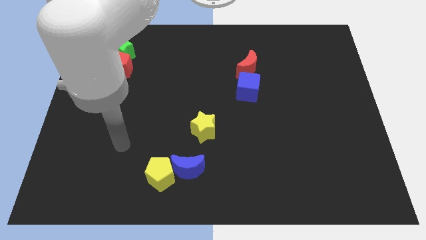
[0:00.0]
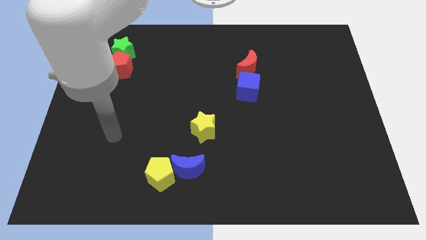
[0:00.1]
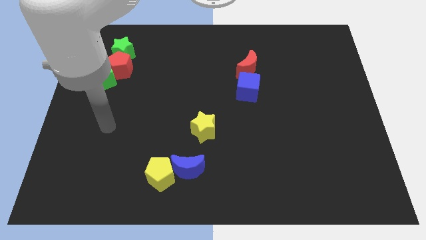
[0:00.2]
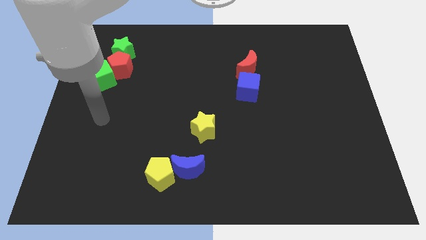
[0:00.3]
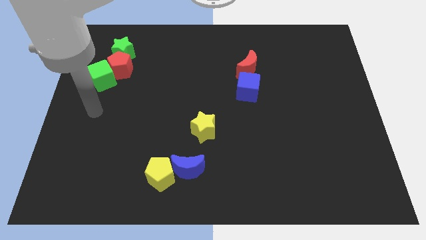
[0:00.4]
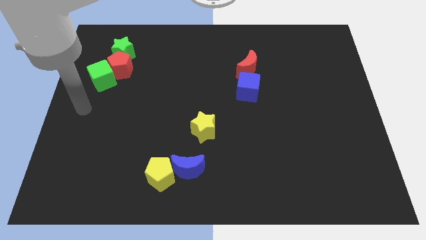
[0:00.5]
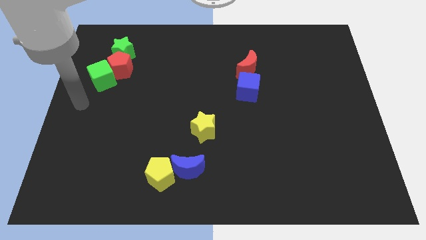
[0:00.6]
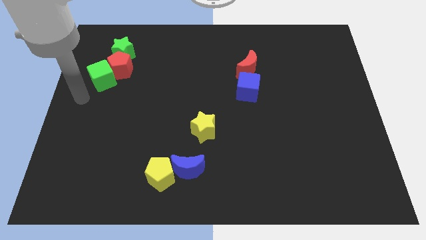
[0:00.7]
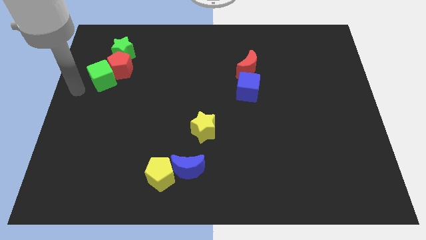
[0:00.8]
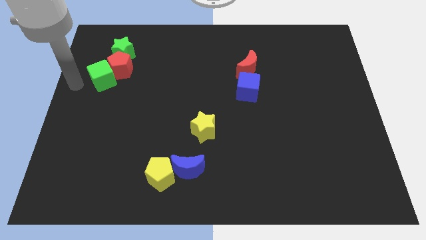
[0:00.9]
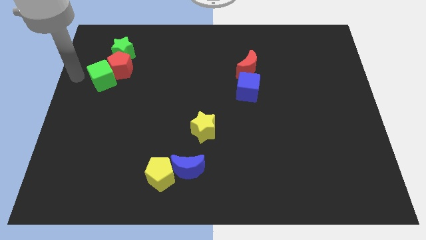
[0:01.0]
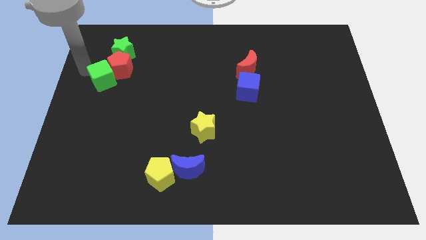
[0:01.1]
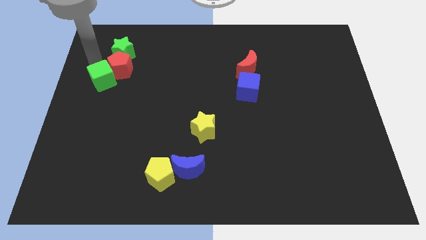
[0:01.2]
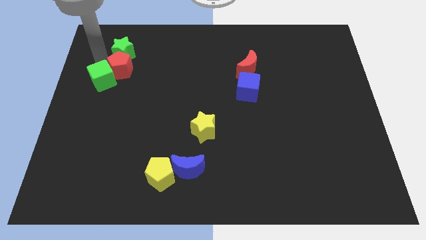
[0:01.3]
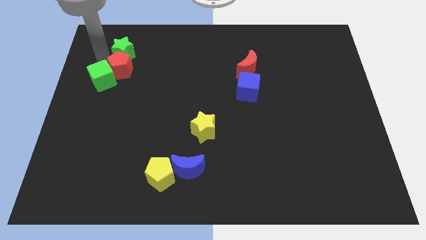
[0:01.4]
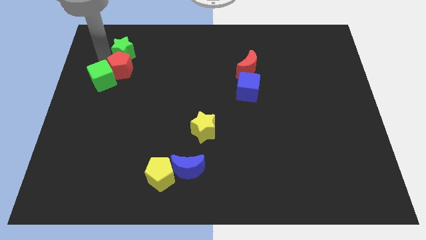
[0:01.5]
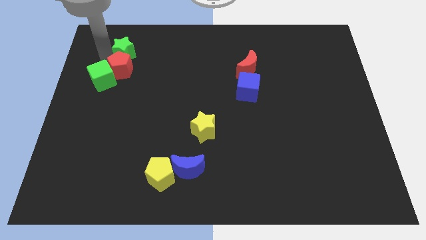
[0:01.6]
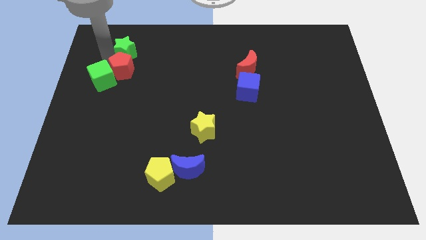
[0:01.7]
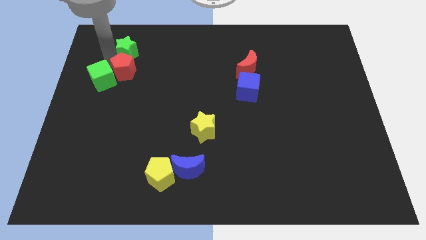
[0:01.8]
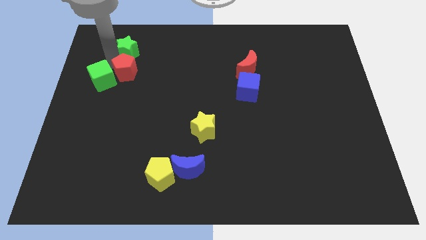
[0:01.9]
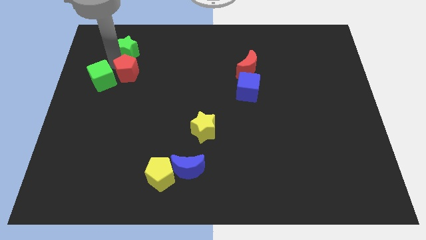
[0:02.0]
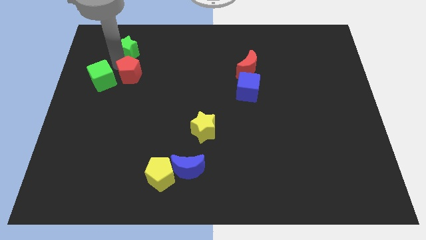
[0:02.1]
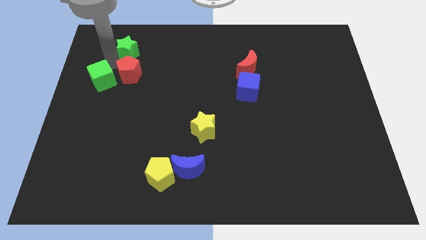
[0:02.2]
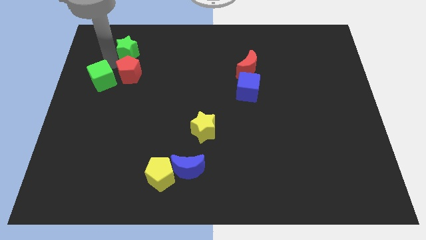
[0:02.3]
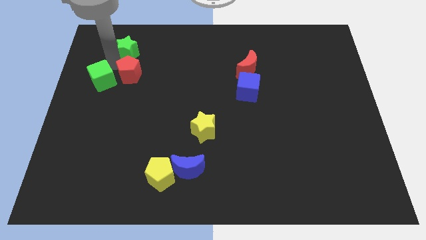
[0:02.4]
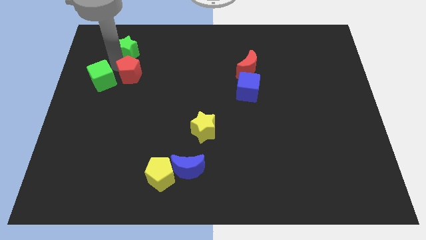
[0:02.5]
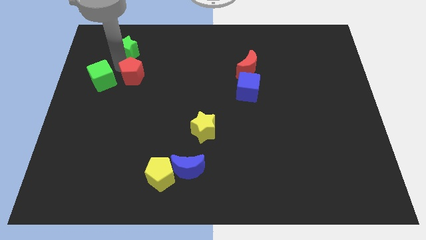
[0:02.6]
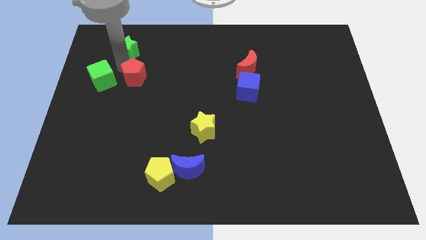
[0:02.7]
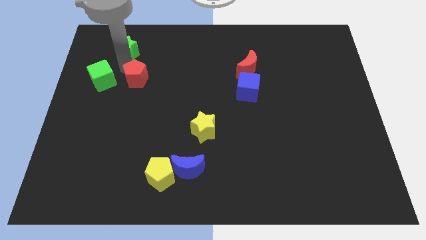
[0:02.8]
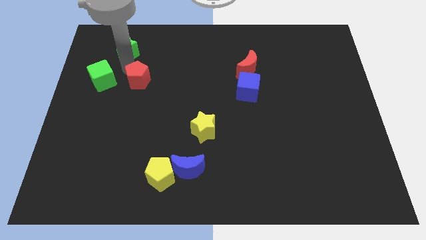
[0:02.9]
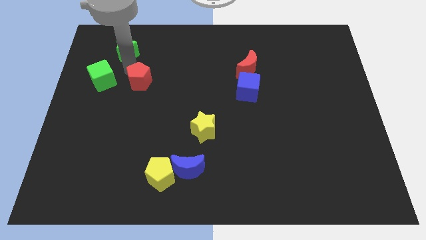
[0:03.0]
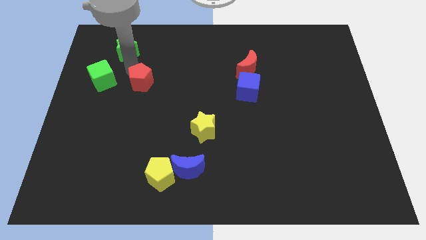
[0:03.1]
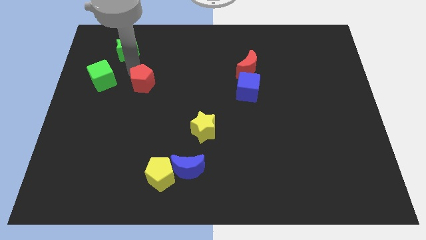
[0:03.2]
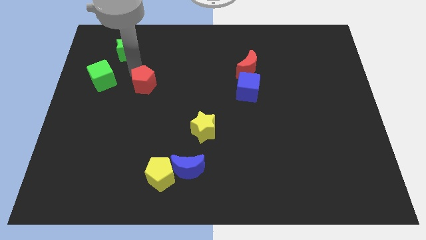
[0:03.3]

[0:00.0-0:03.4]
separate the red pentagon from the green cube and green star

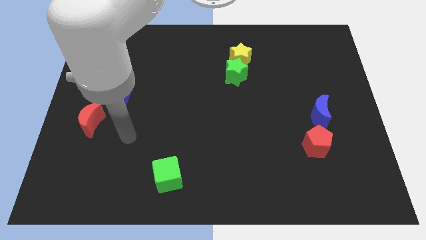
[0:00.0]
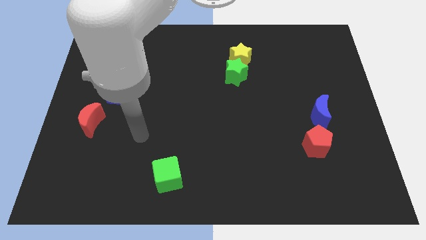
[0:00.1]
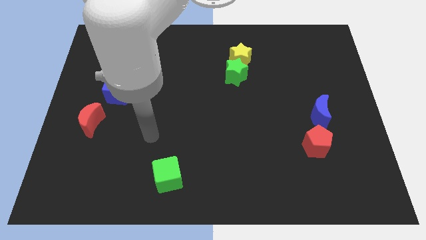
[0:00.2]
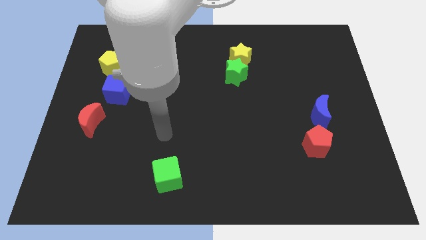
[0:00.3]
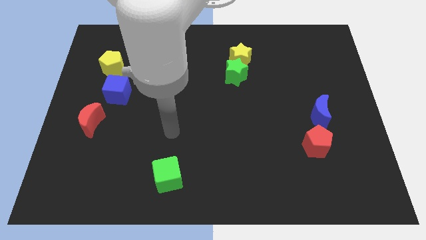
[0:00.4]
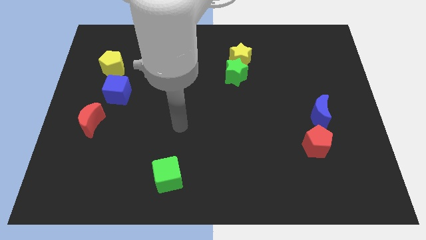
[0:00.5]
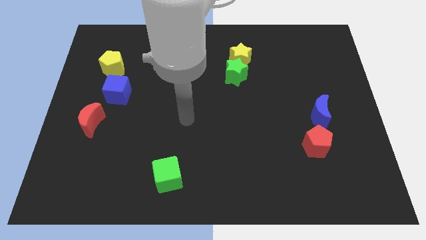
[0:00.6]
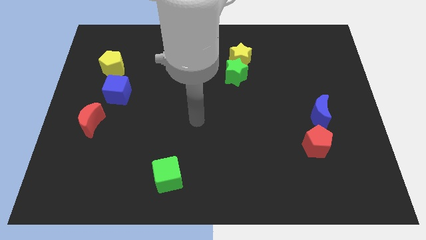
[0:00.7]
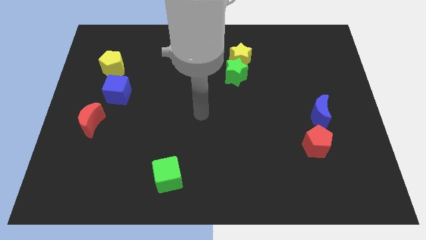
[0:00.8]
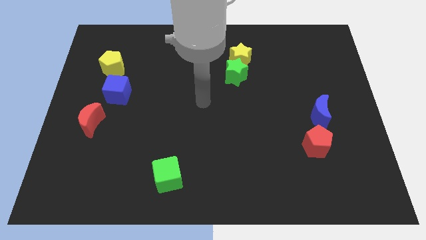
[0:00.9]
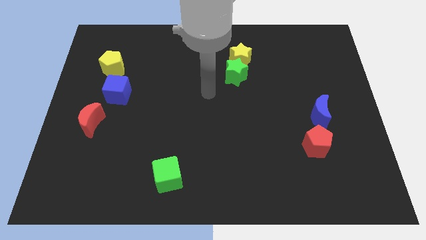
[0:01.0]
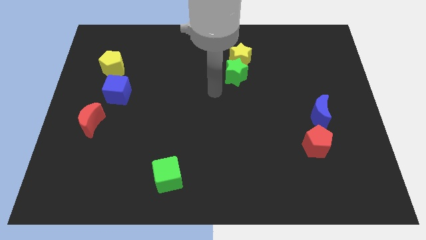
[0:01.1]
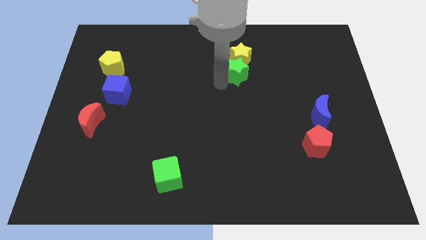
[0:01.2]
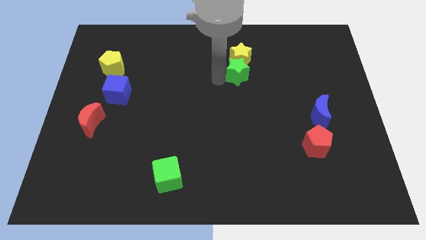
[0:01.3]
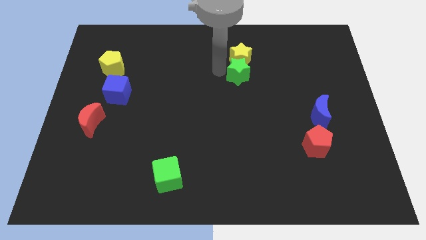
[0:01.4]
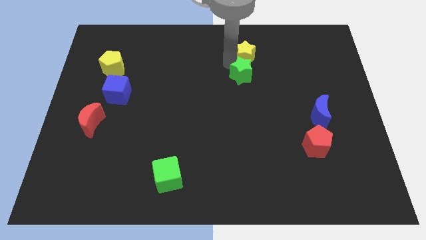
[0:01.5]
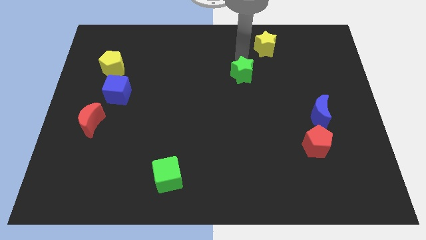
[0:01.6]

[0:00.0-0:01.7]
pull the green star apart from the yellow star

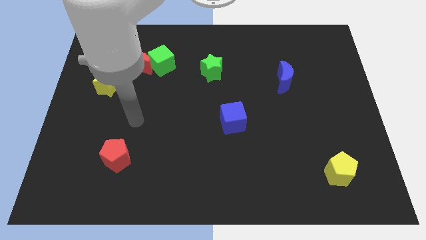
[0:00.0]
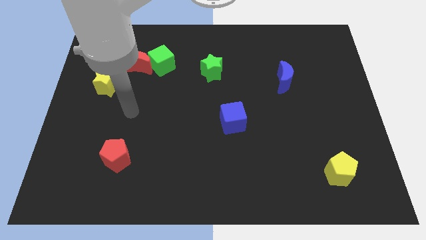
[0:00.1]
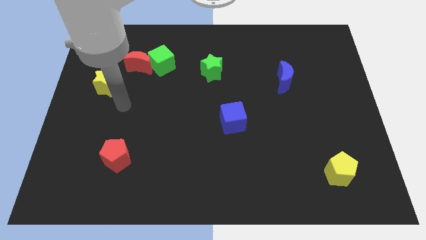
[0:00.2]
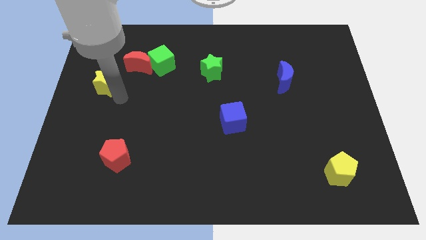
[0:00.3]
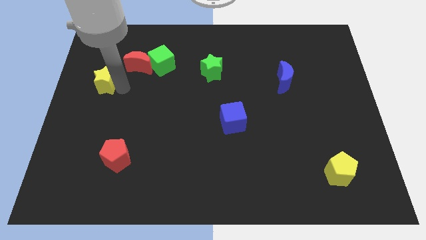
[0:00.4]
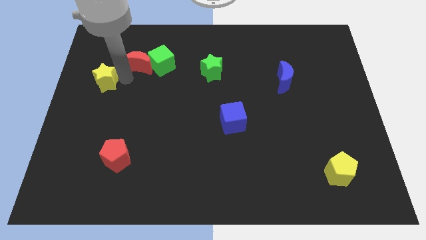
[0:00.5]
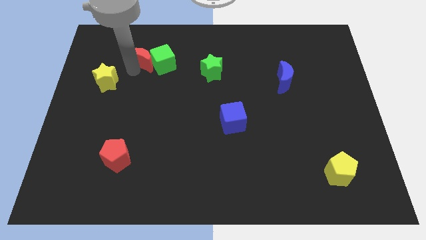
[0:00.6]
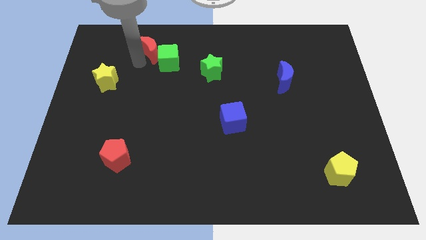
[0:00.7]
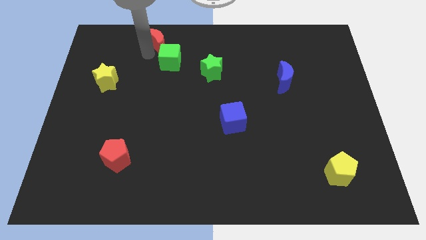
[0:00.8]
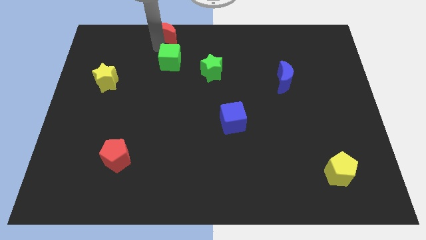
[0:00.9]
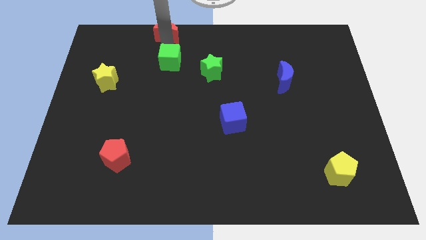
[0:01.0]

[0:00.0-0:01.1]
separate the green cube from the red moon

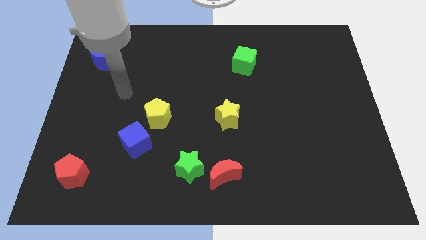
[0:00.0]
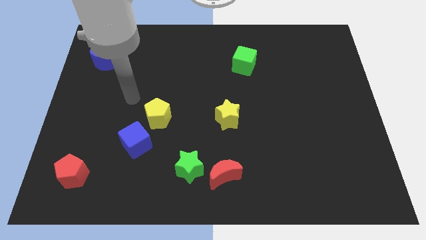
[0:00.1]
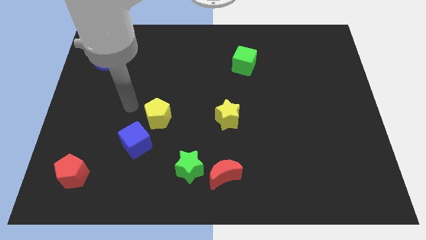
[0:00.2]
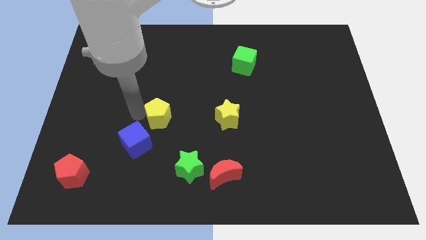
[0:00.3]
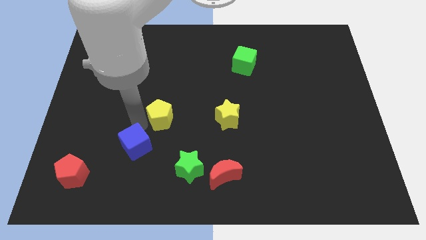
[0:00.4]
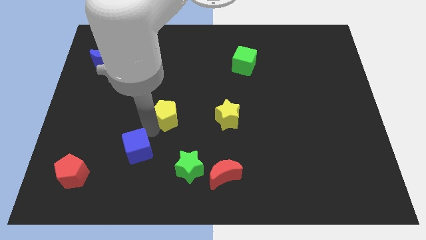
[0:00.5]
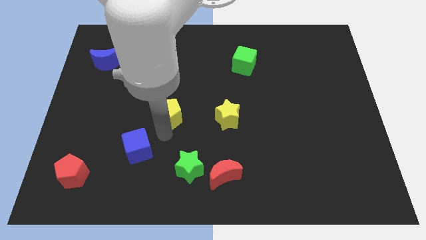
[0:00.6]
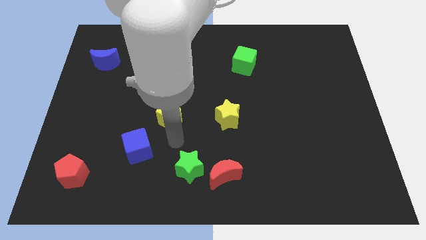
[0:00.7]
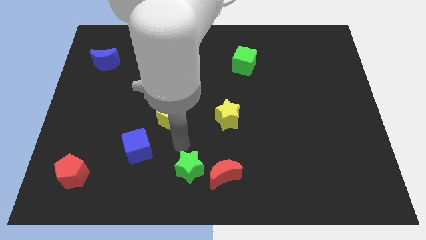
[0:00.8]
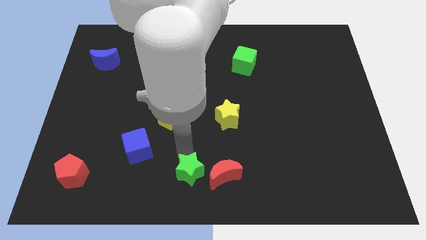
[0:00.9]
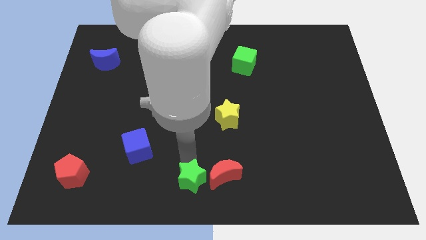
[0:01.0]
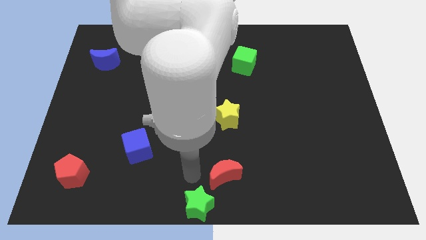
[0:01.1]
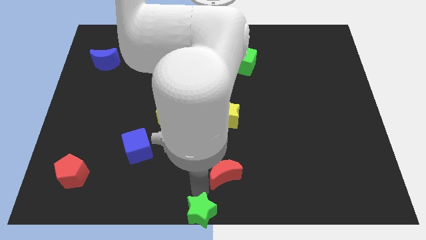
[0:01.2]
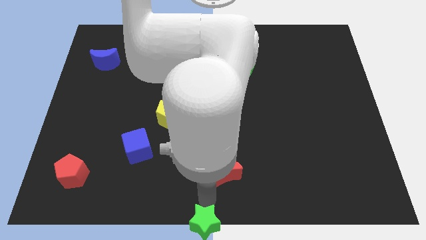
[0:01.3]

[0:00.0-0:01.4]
pull the red moon apart from the green star

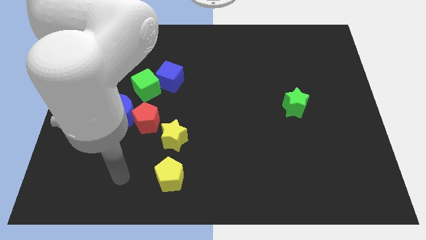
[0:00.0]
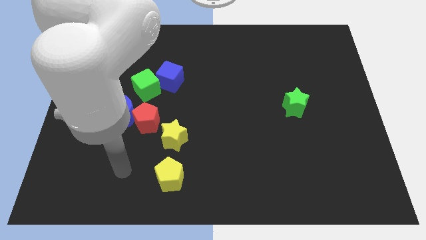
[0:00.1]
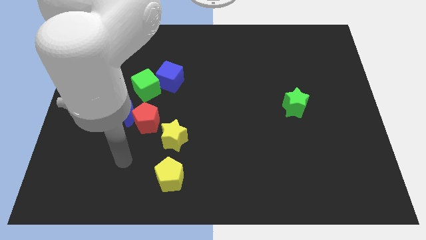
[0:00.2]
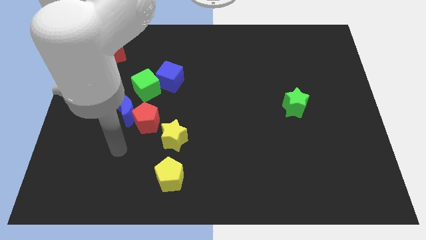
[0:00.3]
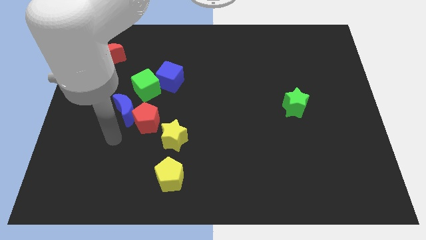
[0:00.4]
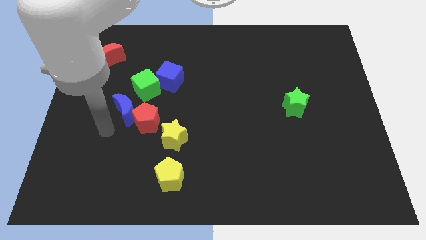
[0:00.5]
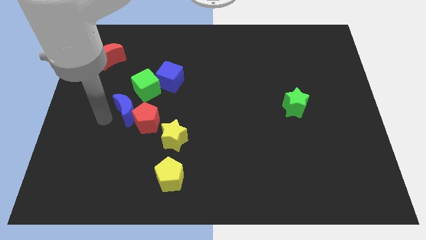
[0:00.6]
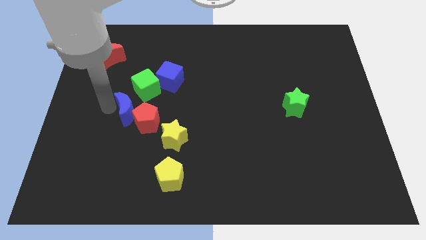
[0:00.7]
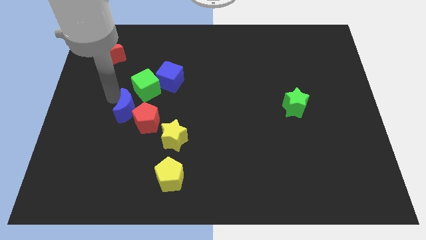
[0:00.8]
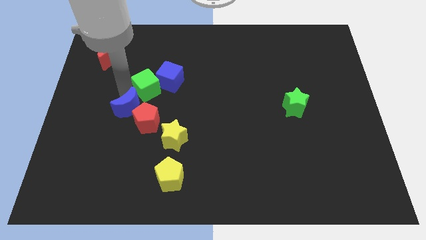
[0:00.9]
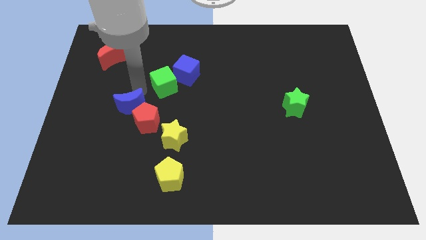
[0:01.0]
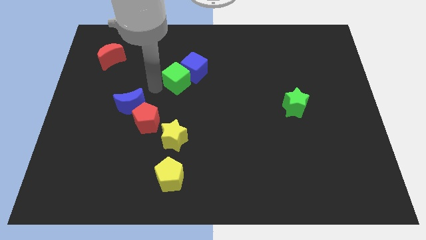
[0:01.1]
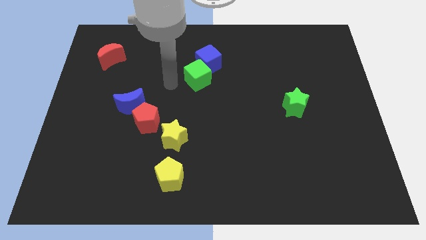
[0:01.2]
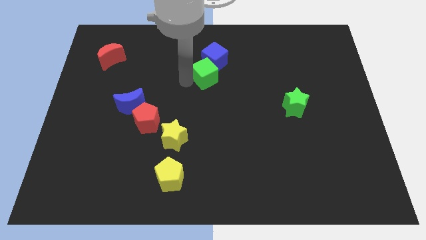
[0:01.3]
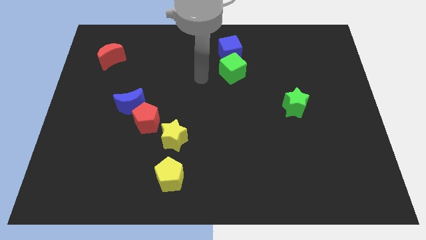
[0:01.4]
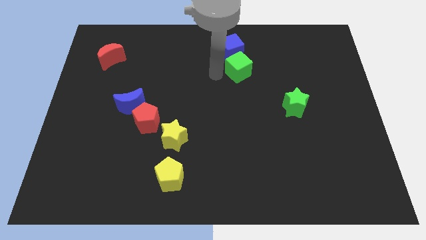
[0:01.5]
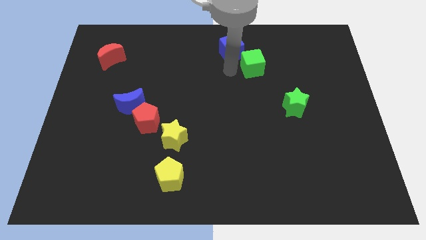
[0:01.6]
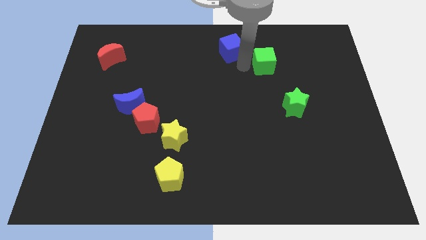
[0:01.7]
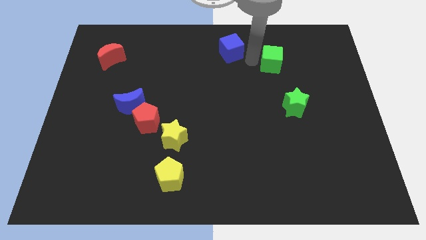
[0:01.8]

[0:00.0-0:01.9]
move the blue cube away from the green cube
